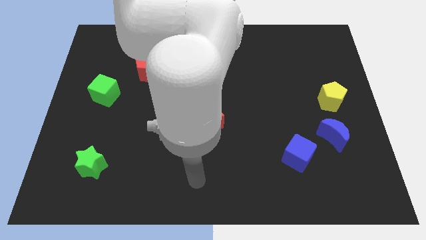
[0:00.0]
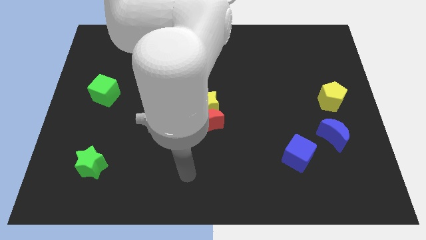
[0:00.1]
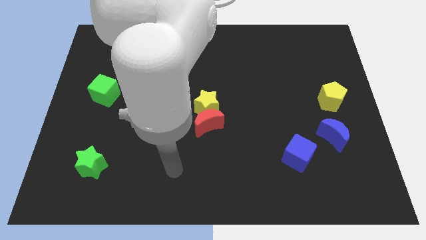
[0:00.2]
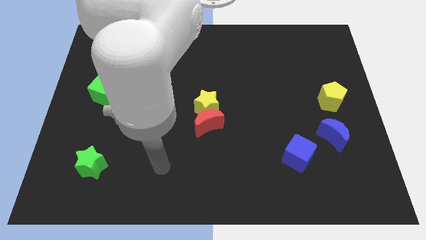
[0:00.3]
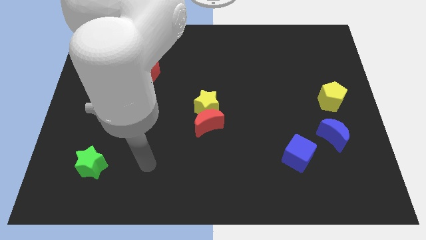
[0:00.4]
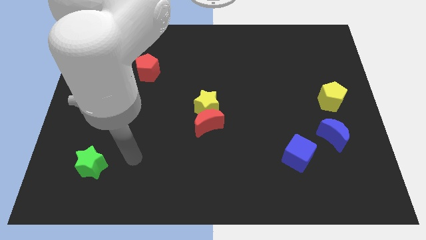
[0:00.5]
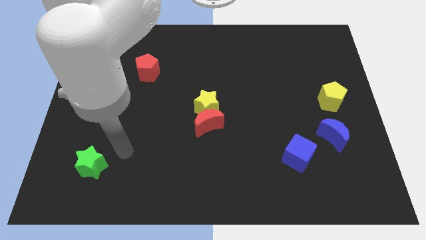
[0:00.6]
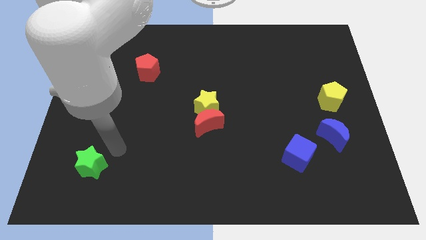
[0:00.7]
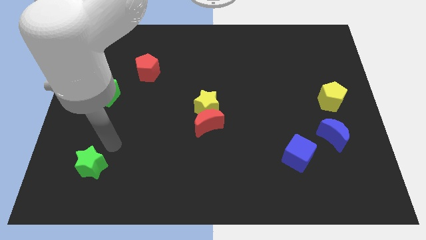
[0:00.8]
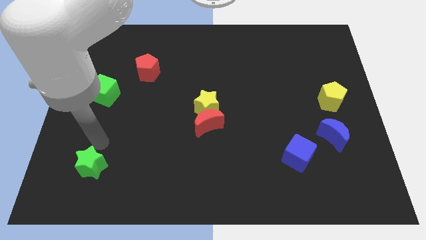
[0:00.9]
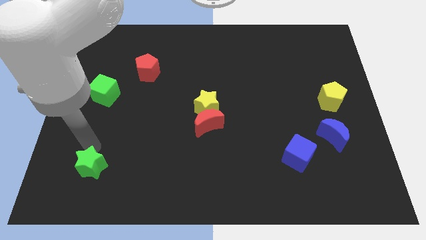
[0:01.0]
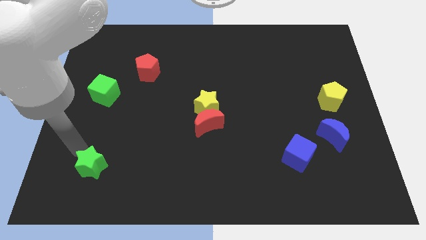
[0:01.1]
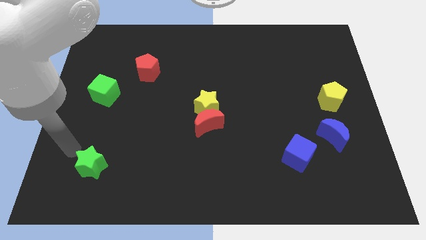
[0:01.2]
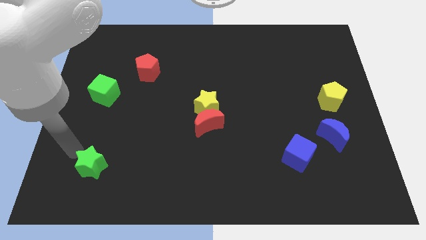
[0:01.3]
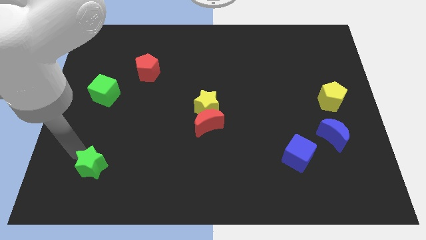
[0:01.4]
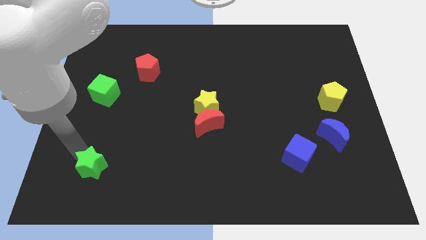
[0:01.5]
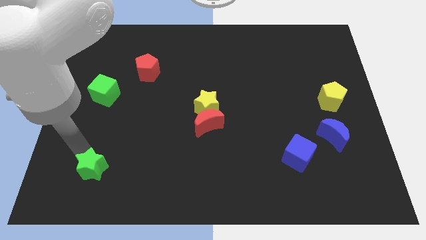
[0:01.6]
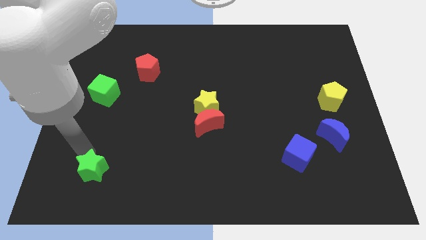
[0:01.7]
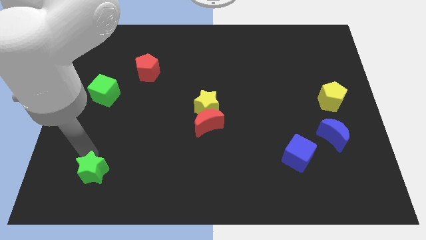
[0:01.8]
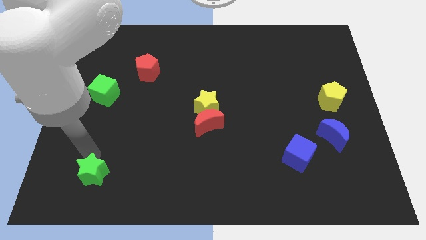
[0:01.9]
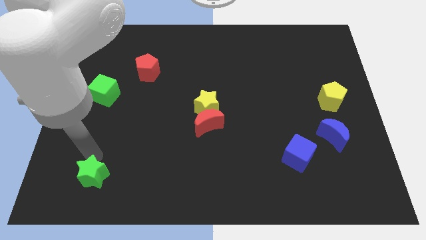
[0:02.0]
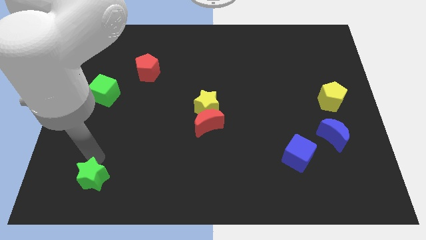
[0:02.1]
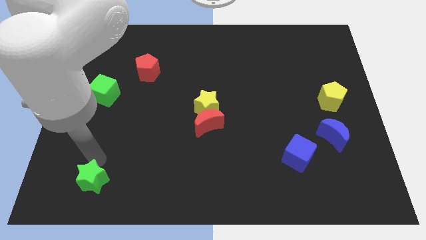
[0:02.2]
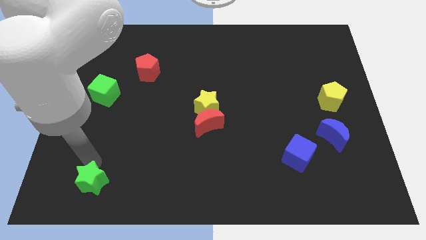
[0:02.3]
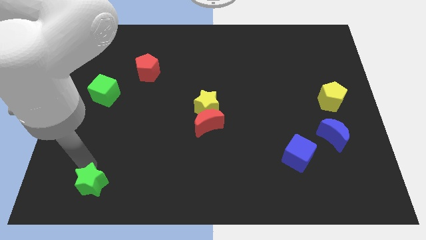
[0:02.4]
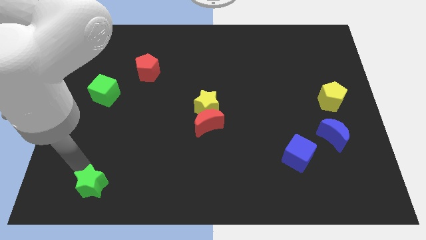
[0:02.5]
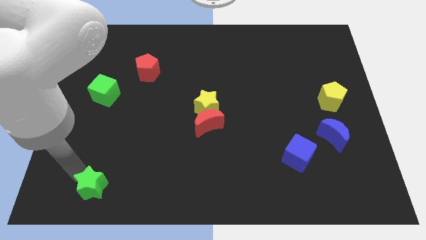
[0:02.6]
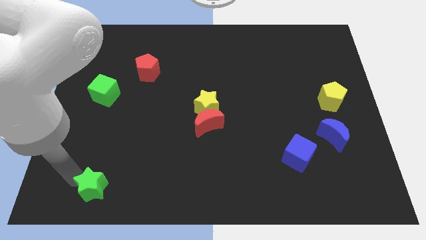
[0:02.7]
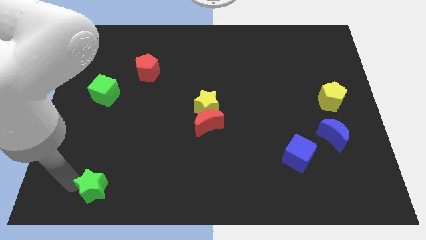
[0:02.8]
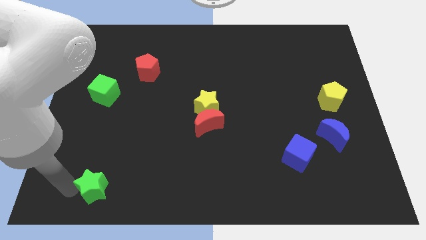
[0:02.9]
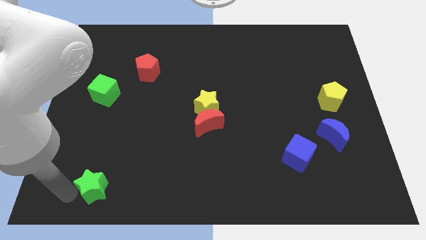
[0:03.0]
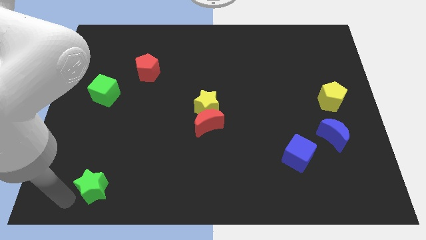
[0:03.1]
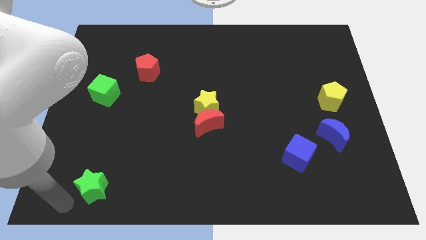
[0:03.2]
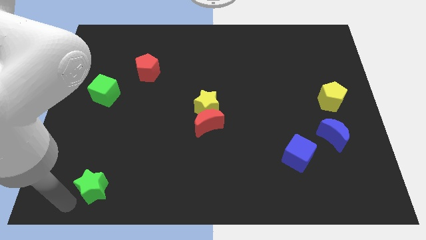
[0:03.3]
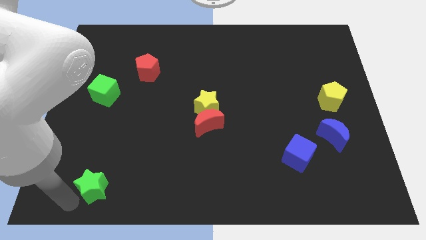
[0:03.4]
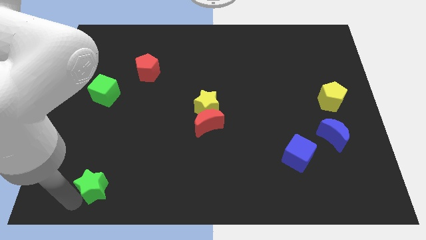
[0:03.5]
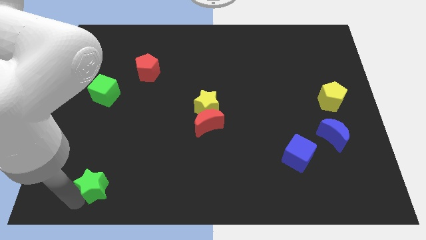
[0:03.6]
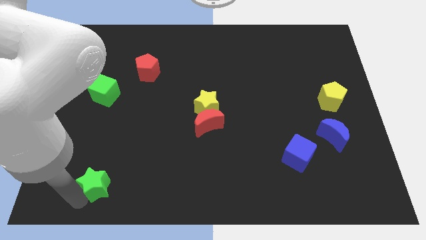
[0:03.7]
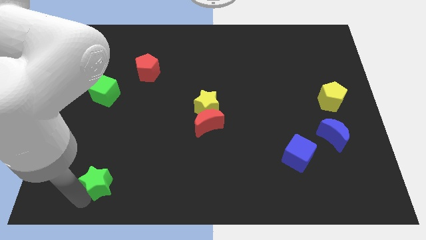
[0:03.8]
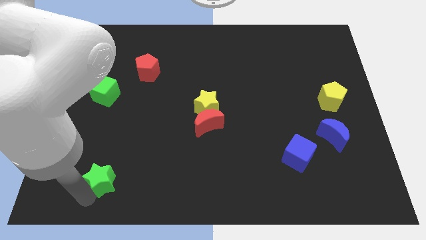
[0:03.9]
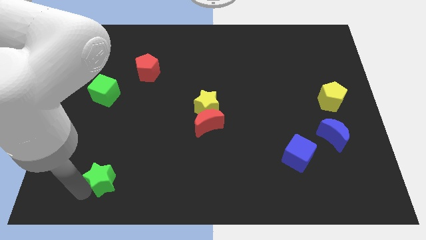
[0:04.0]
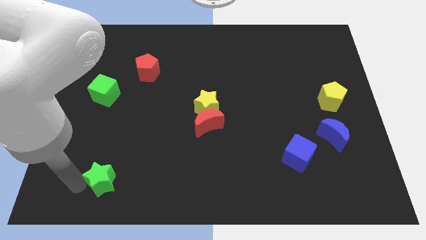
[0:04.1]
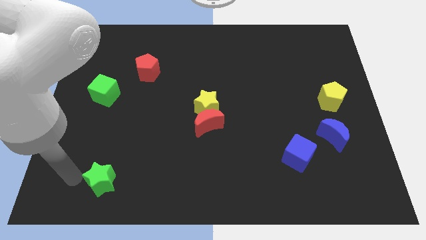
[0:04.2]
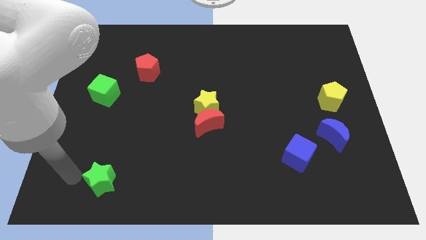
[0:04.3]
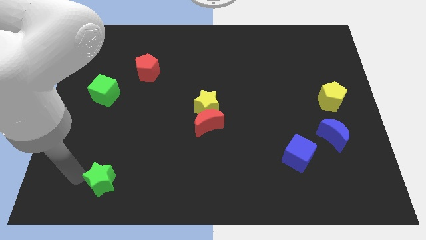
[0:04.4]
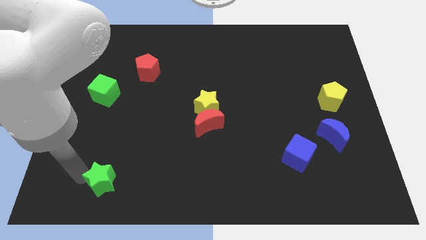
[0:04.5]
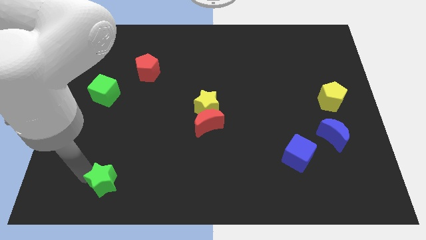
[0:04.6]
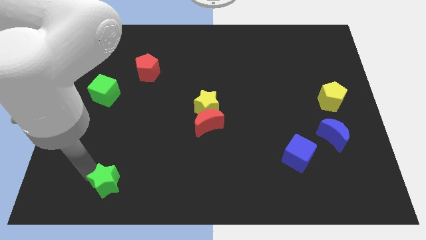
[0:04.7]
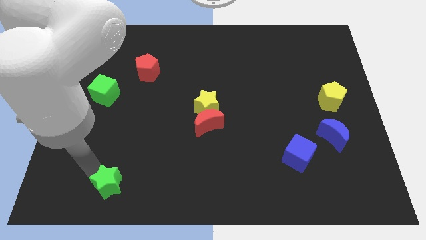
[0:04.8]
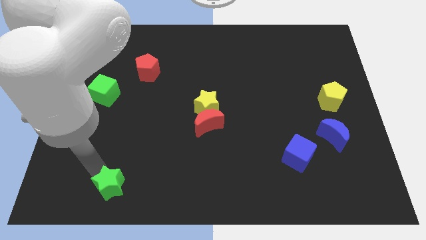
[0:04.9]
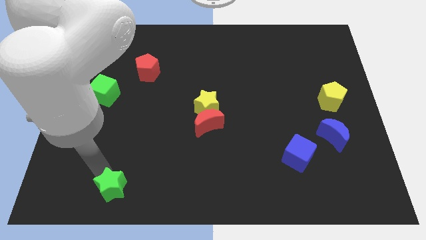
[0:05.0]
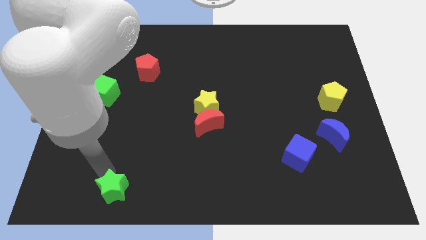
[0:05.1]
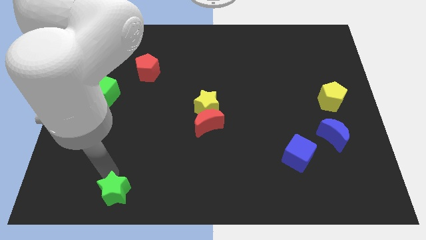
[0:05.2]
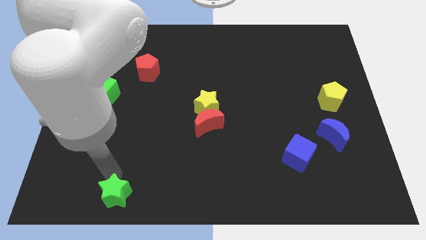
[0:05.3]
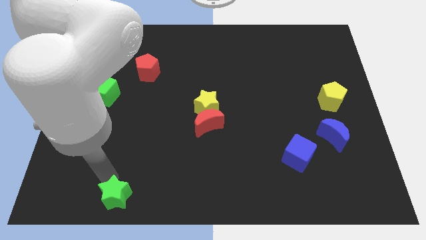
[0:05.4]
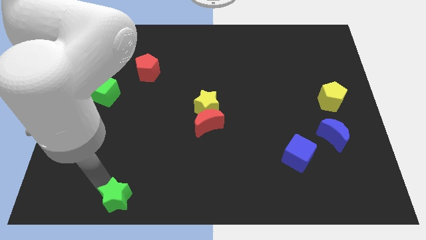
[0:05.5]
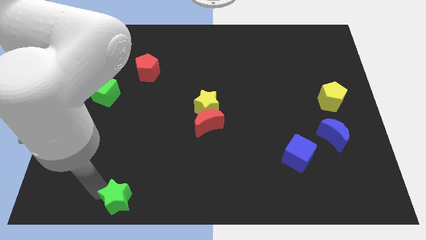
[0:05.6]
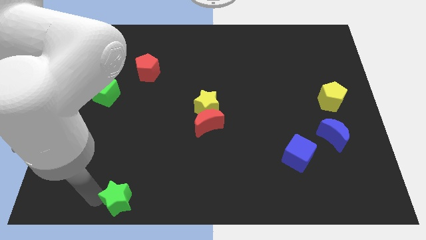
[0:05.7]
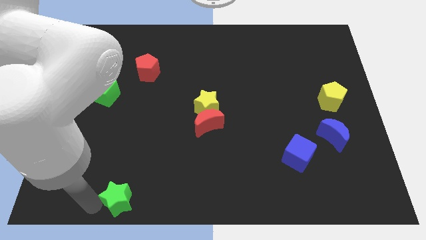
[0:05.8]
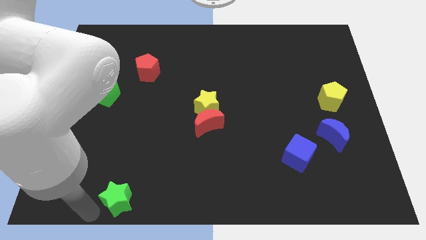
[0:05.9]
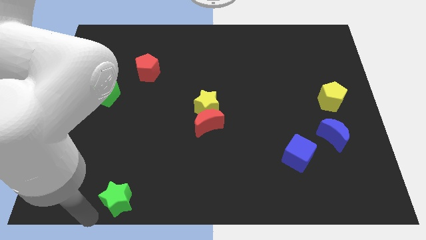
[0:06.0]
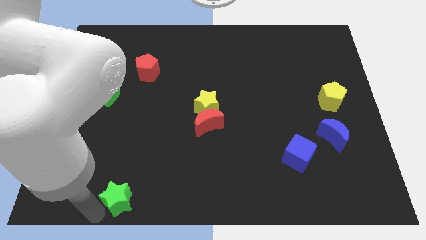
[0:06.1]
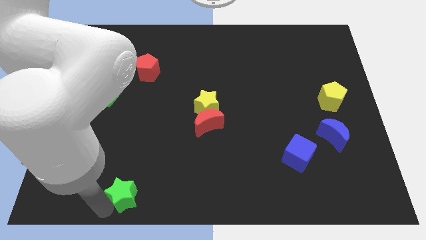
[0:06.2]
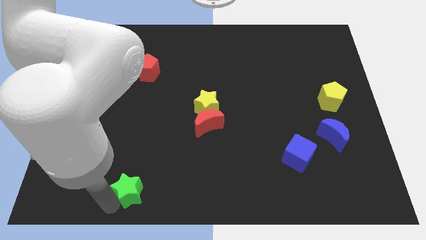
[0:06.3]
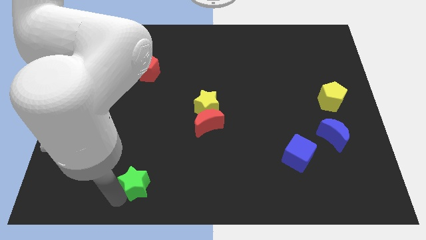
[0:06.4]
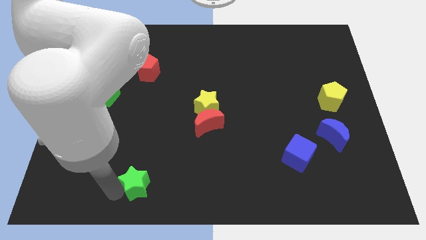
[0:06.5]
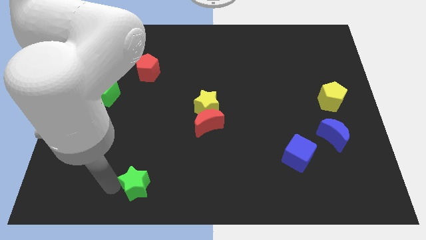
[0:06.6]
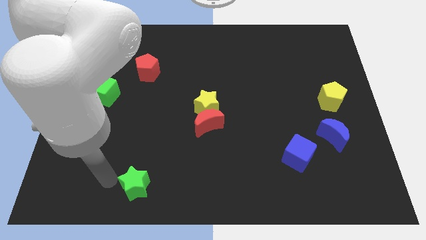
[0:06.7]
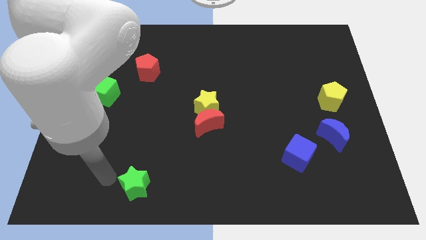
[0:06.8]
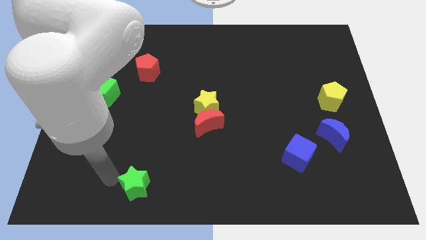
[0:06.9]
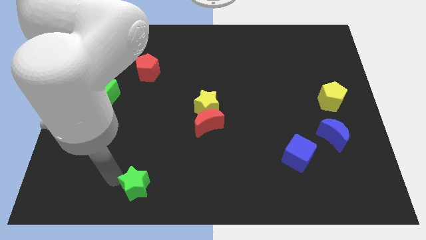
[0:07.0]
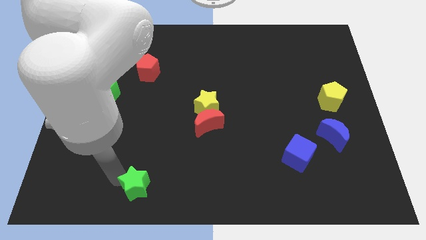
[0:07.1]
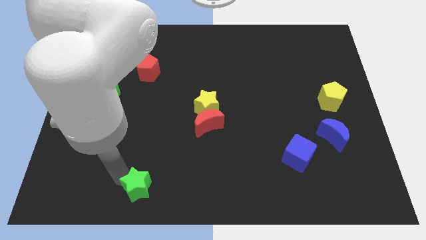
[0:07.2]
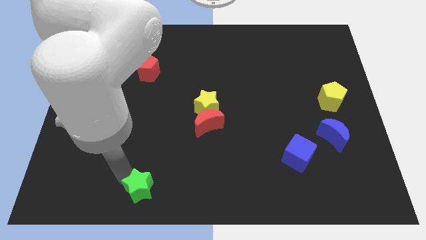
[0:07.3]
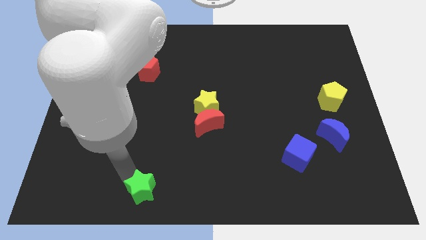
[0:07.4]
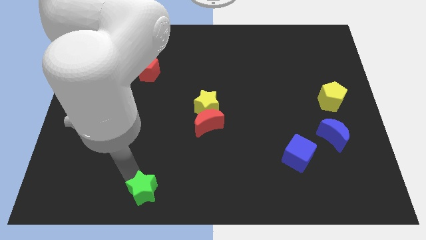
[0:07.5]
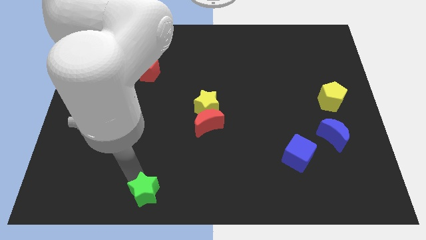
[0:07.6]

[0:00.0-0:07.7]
push the green star to the bottom
